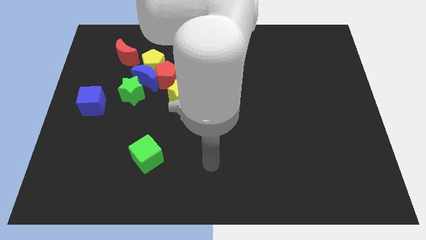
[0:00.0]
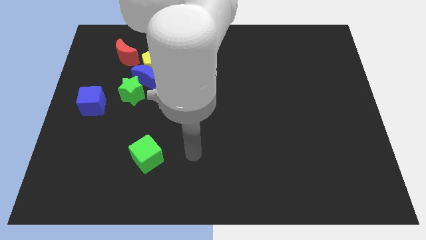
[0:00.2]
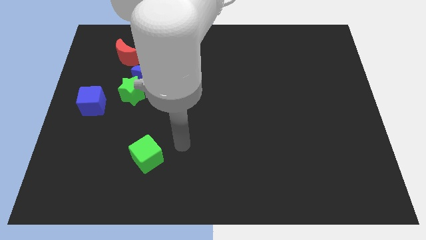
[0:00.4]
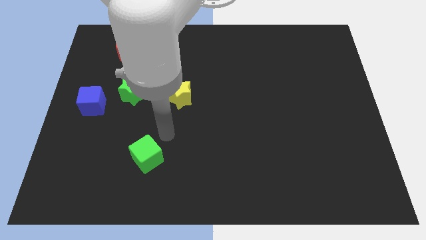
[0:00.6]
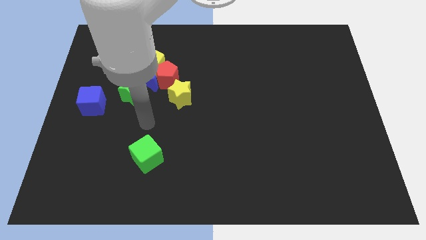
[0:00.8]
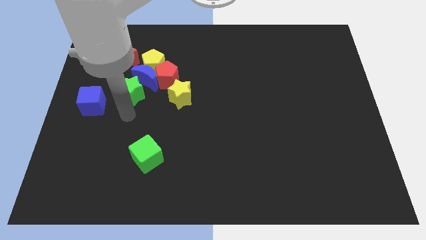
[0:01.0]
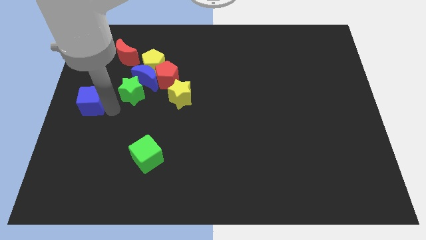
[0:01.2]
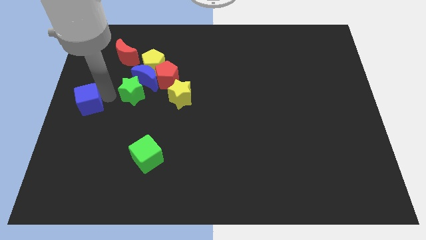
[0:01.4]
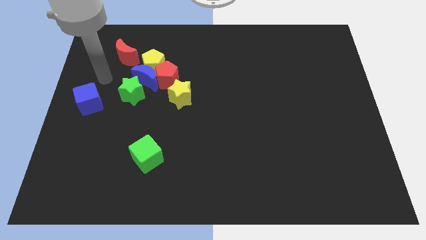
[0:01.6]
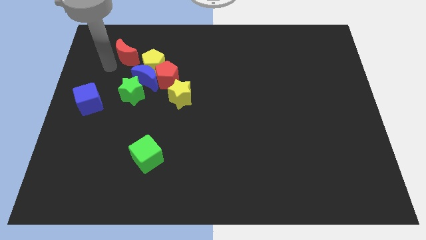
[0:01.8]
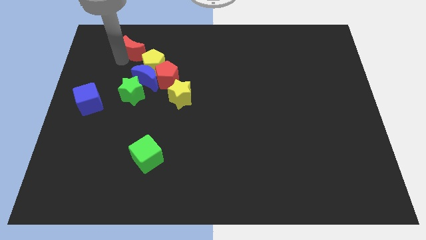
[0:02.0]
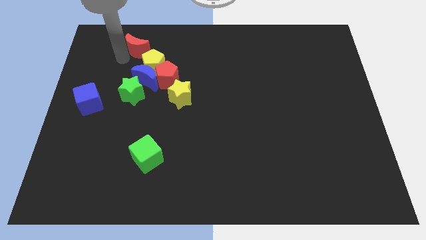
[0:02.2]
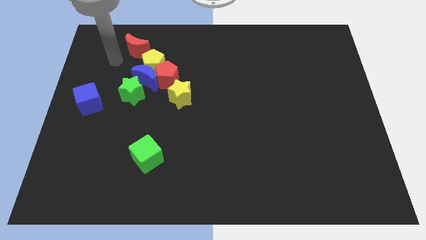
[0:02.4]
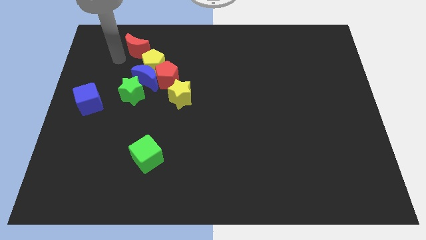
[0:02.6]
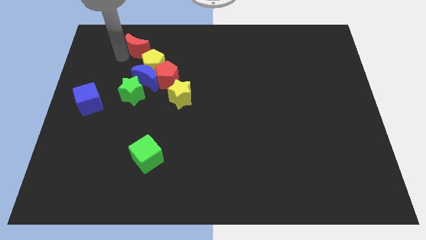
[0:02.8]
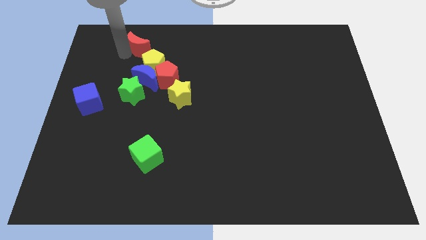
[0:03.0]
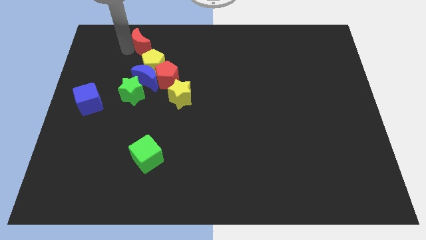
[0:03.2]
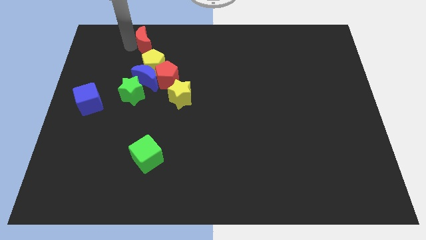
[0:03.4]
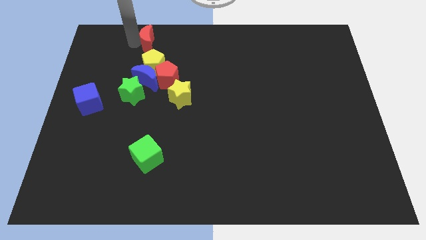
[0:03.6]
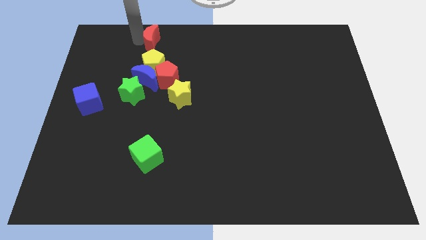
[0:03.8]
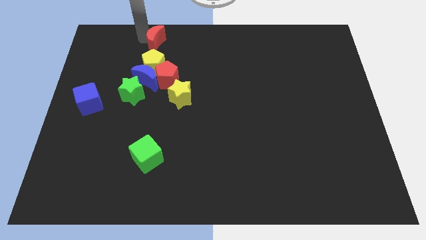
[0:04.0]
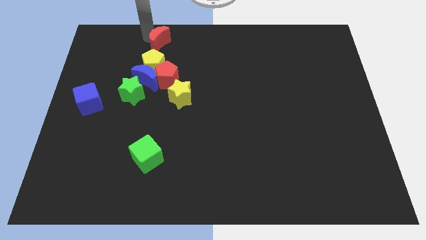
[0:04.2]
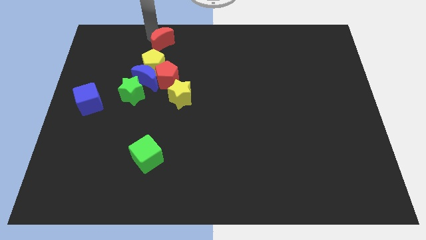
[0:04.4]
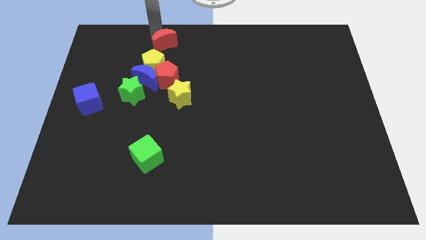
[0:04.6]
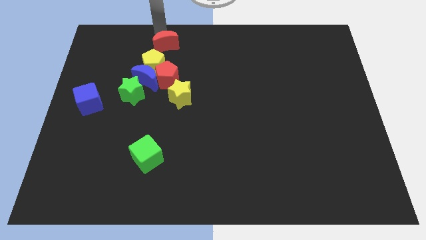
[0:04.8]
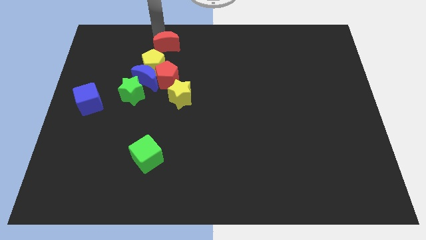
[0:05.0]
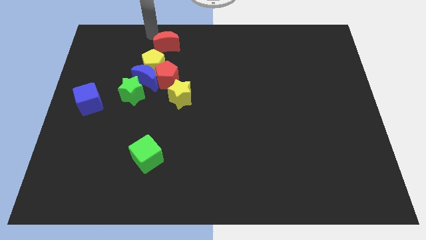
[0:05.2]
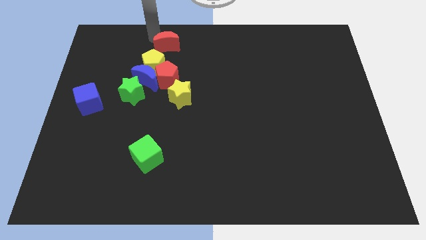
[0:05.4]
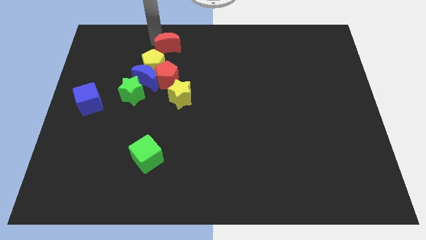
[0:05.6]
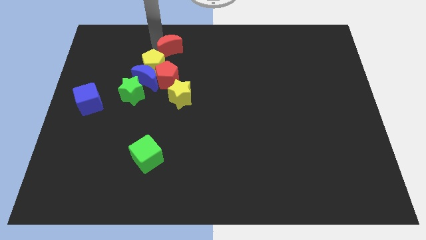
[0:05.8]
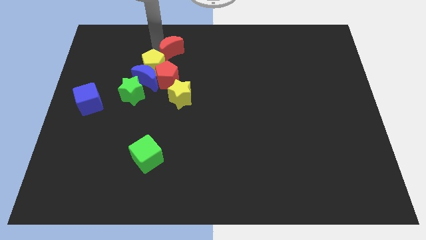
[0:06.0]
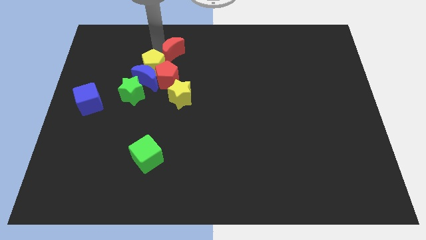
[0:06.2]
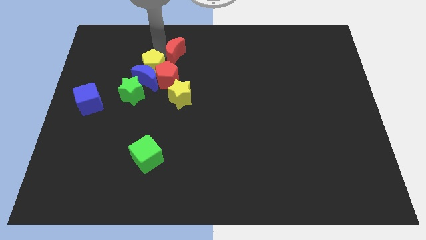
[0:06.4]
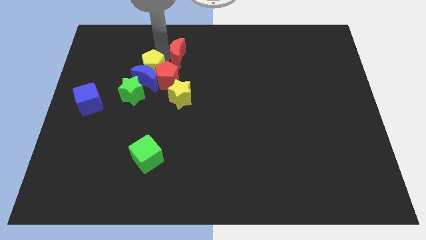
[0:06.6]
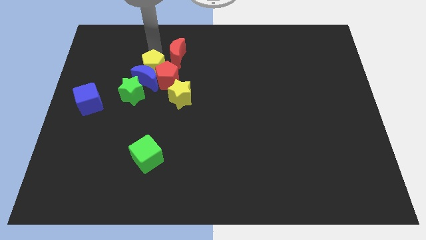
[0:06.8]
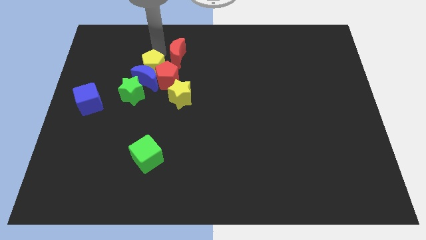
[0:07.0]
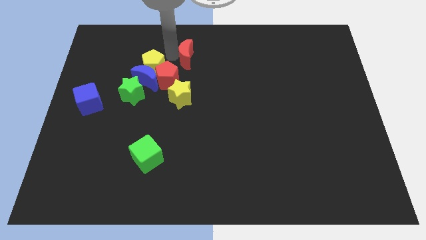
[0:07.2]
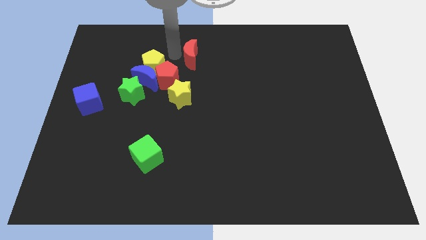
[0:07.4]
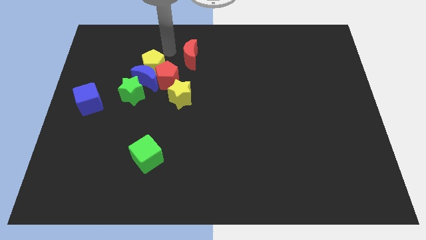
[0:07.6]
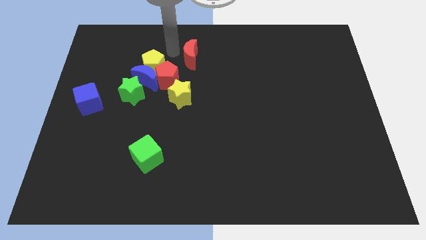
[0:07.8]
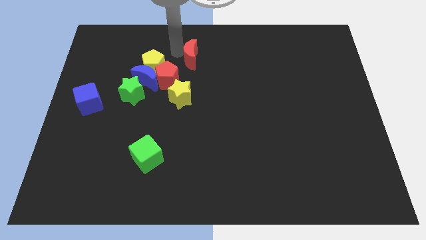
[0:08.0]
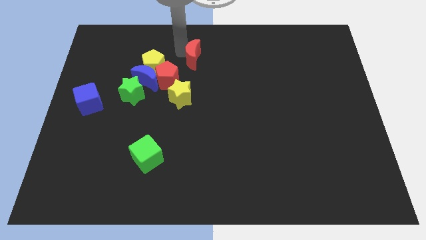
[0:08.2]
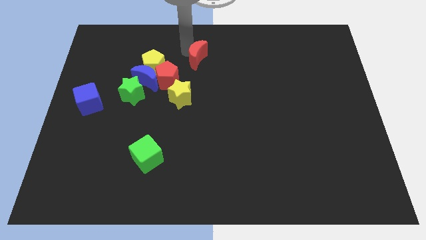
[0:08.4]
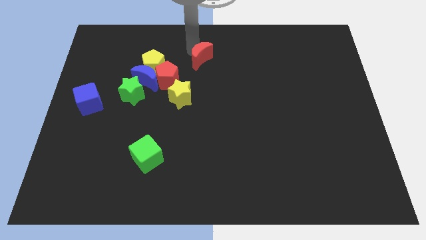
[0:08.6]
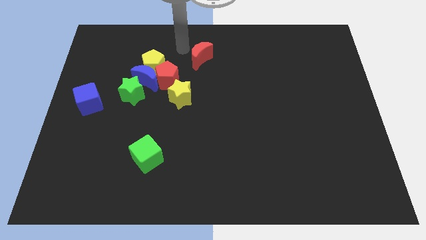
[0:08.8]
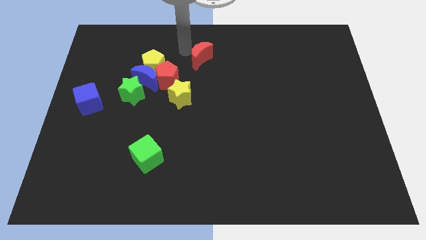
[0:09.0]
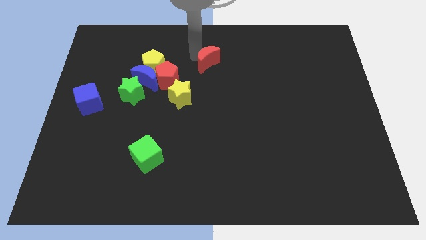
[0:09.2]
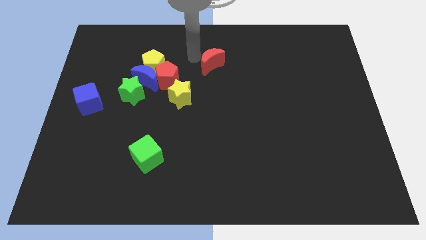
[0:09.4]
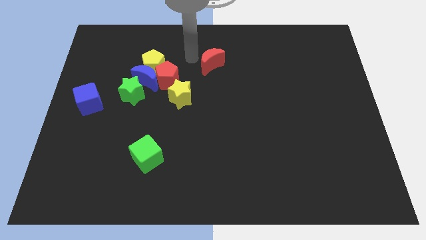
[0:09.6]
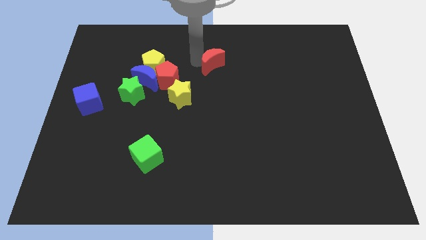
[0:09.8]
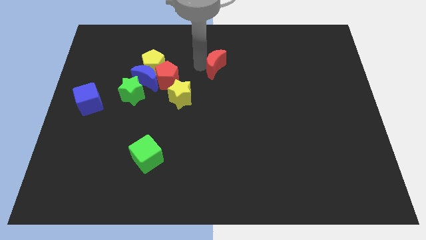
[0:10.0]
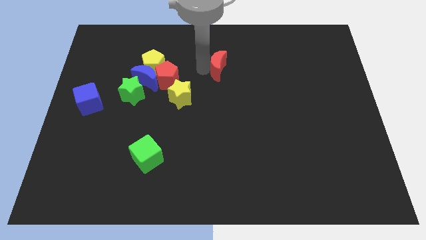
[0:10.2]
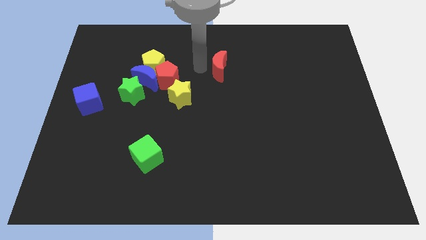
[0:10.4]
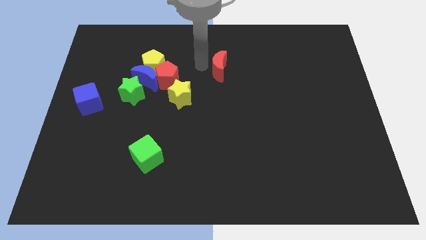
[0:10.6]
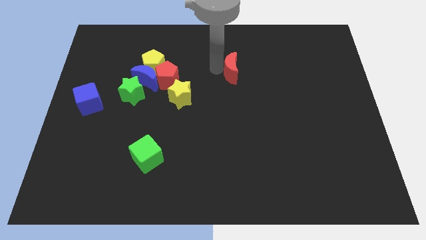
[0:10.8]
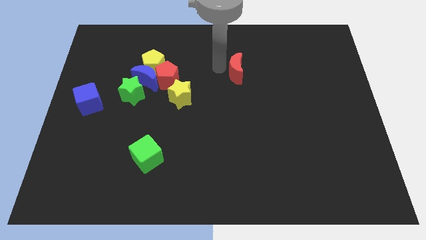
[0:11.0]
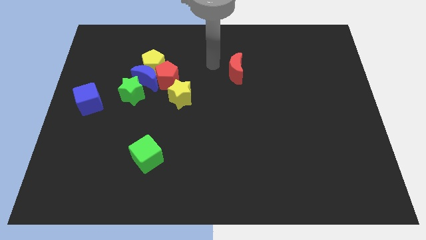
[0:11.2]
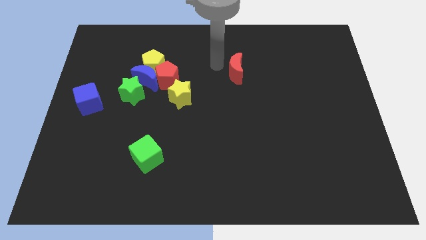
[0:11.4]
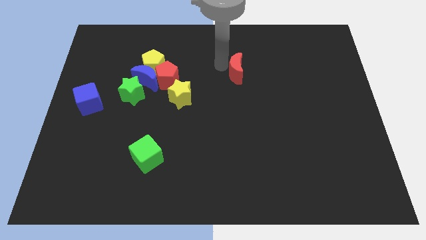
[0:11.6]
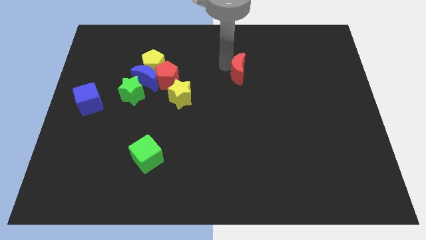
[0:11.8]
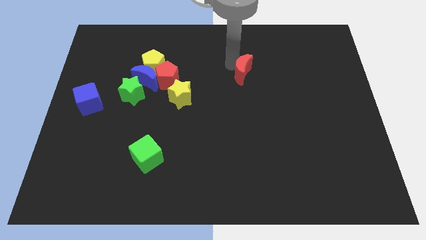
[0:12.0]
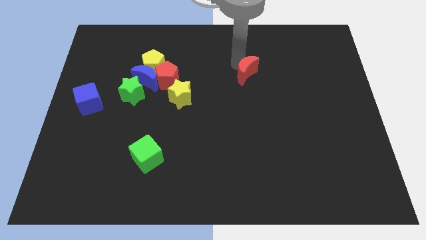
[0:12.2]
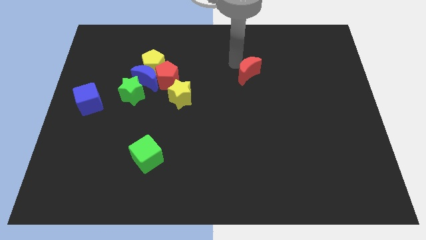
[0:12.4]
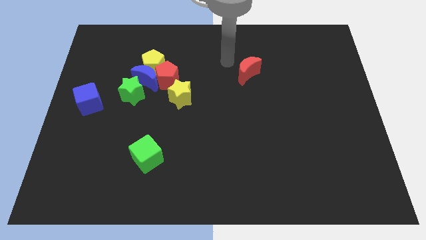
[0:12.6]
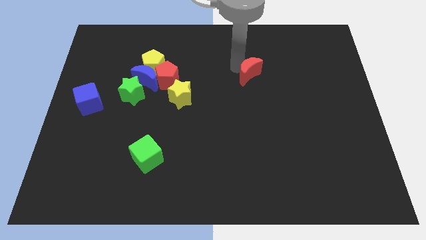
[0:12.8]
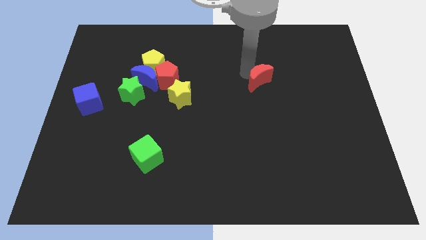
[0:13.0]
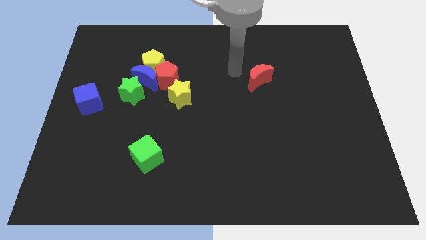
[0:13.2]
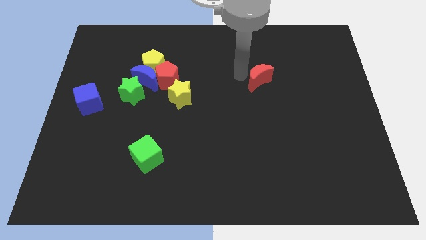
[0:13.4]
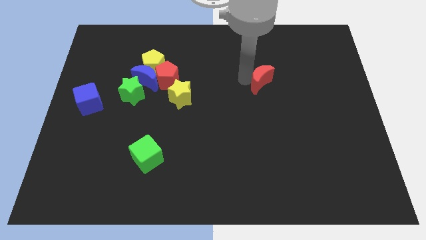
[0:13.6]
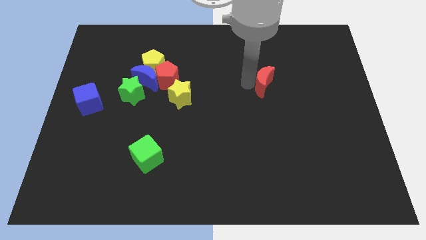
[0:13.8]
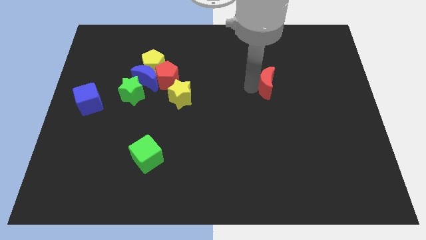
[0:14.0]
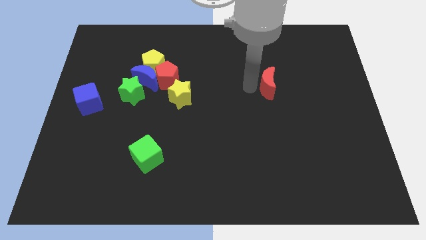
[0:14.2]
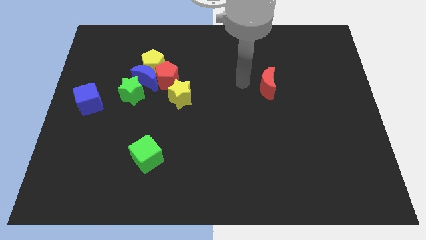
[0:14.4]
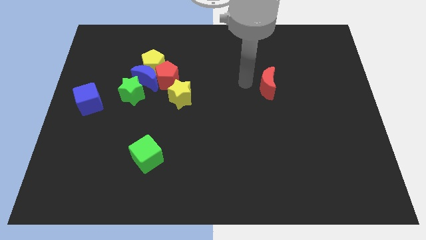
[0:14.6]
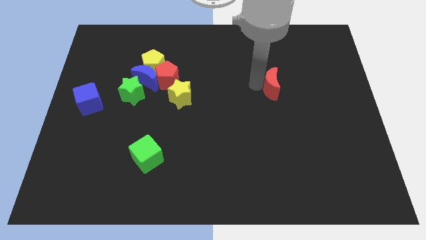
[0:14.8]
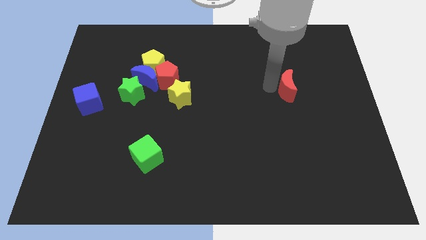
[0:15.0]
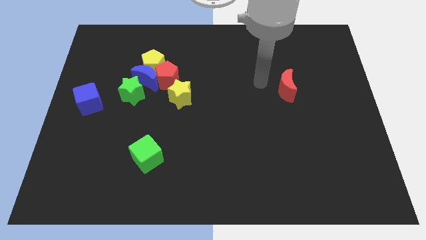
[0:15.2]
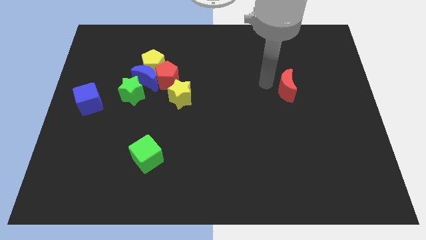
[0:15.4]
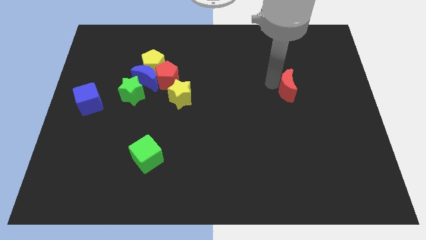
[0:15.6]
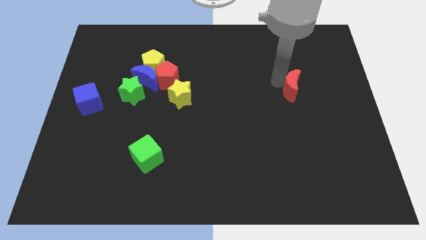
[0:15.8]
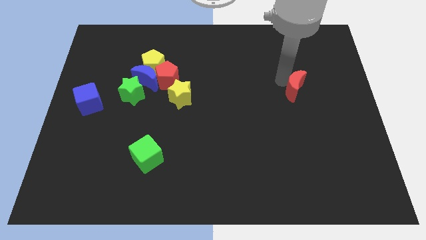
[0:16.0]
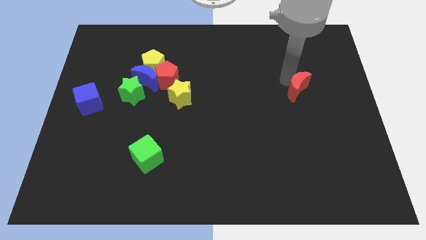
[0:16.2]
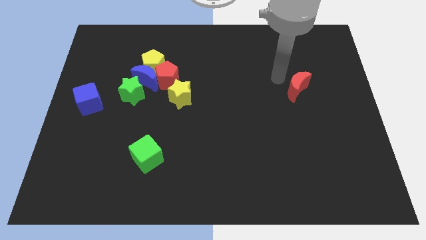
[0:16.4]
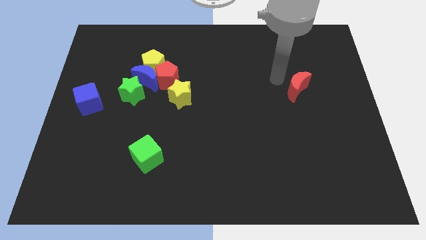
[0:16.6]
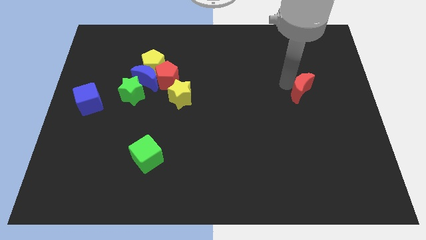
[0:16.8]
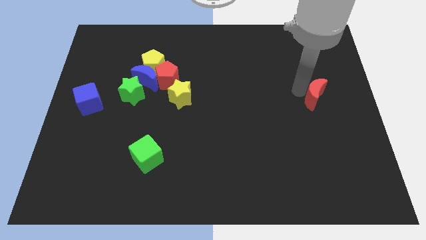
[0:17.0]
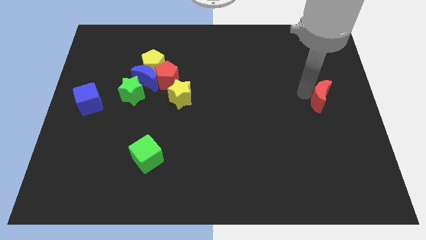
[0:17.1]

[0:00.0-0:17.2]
slide the red moon to the right side
